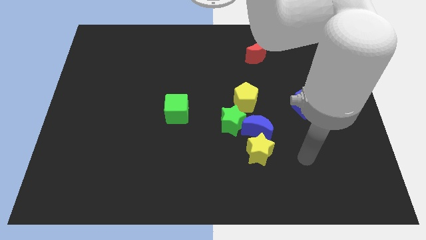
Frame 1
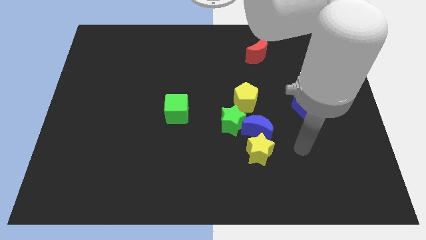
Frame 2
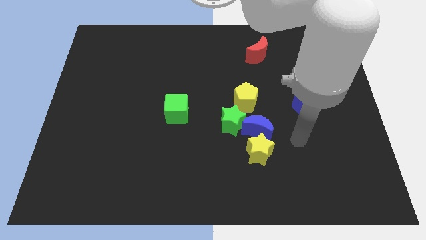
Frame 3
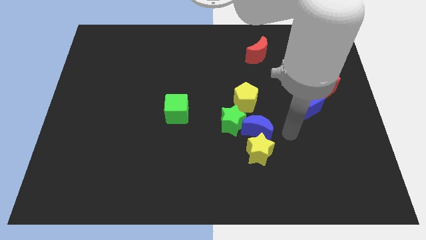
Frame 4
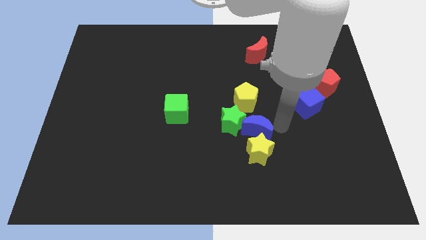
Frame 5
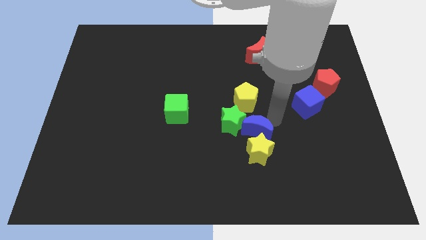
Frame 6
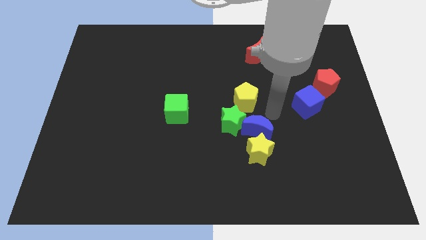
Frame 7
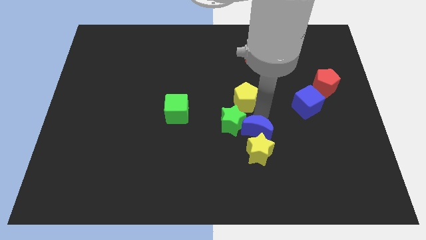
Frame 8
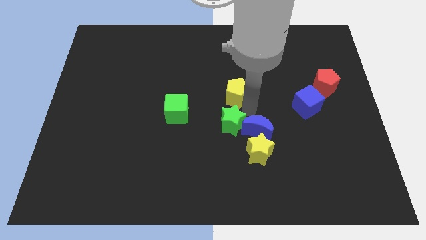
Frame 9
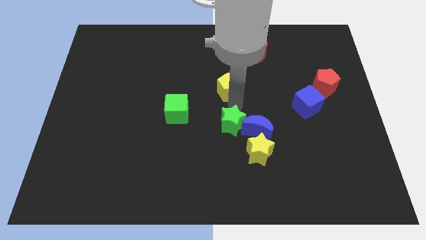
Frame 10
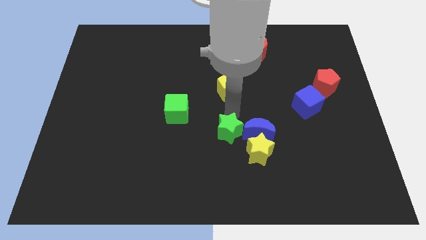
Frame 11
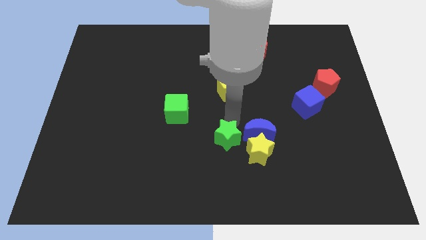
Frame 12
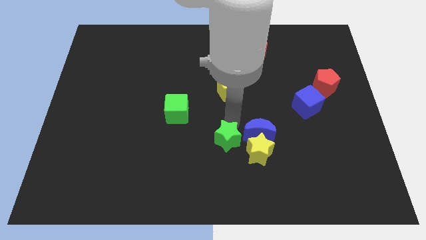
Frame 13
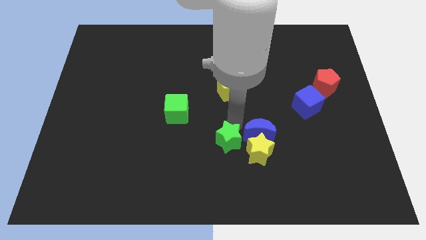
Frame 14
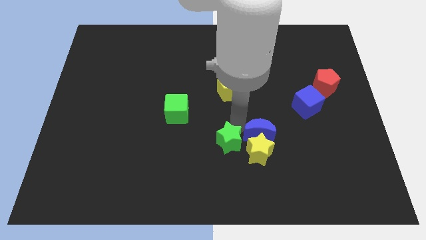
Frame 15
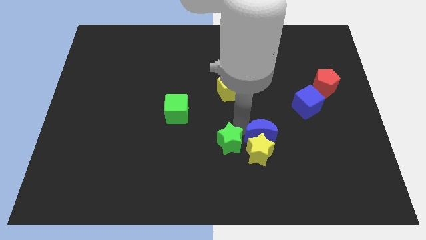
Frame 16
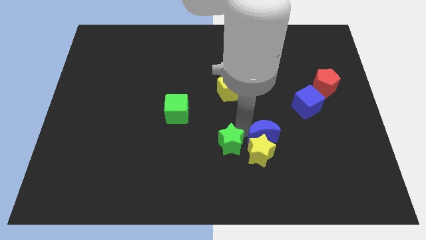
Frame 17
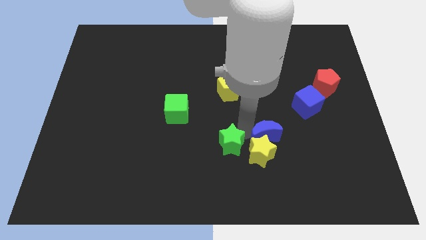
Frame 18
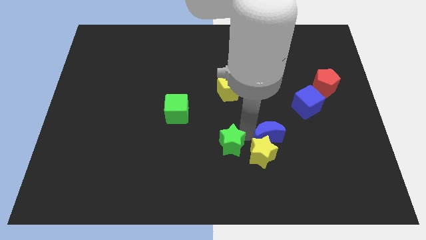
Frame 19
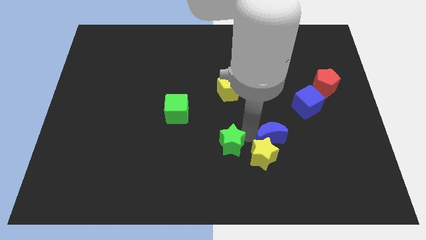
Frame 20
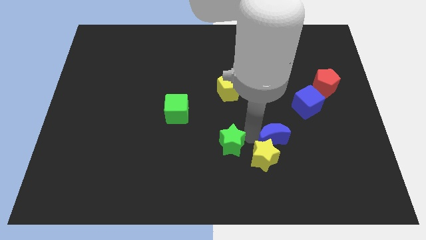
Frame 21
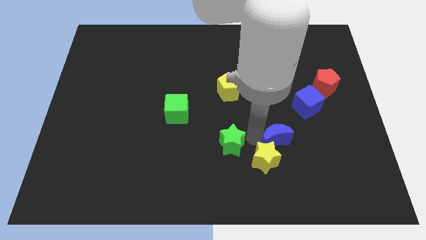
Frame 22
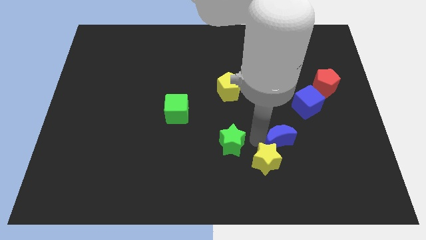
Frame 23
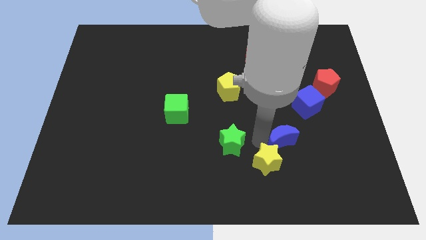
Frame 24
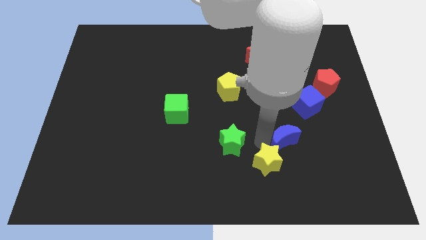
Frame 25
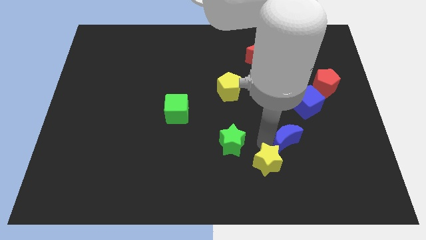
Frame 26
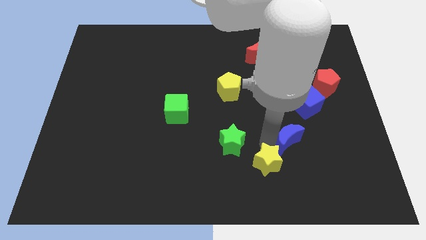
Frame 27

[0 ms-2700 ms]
separate the blue moon from the green star, yellow star, and yellow pentagon

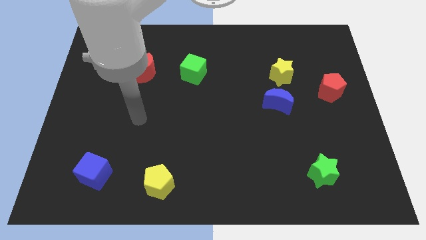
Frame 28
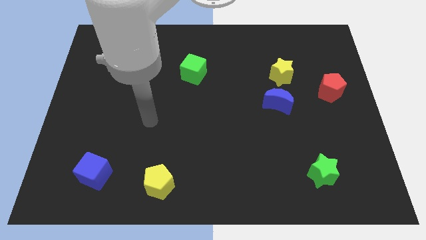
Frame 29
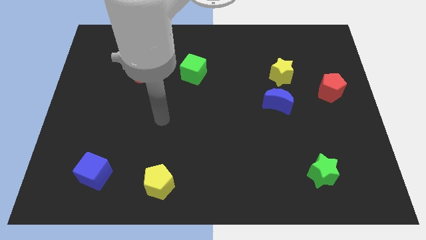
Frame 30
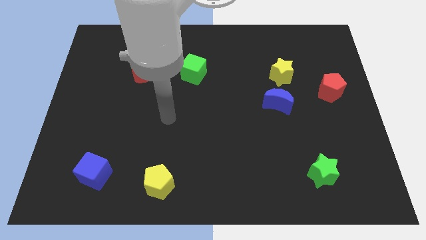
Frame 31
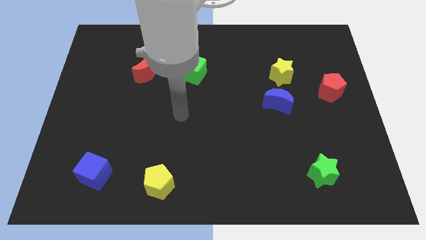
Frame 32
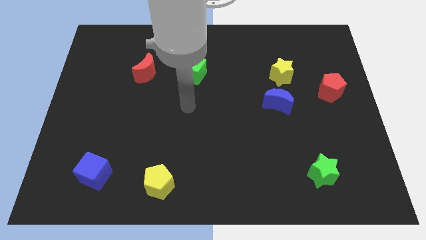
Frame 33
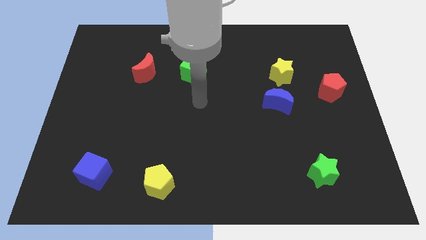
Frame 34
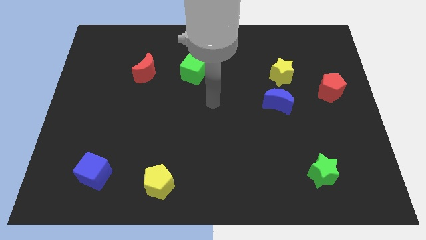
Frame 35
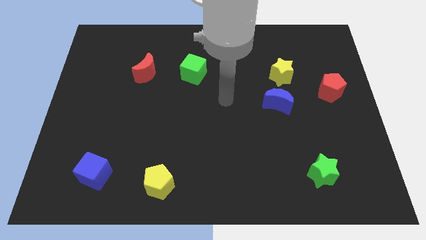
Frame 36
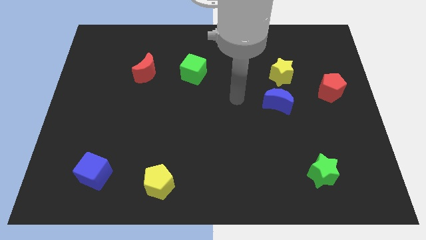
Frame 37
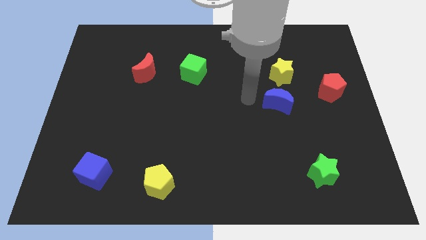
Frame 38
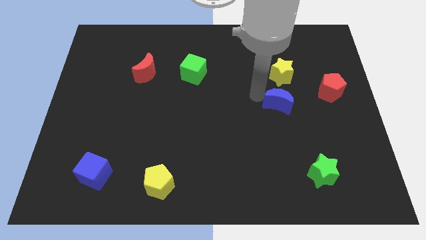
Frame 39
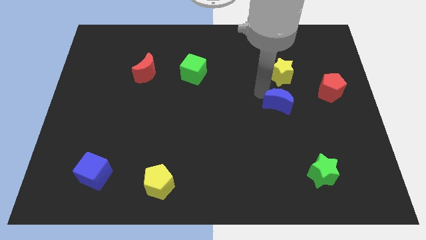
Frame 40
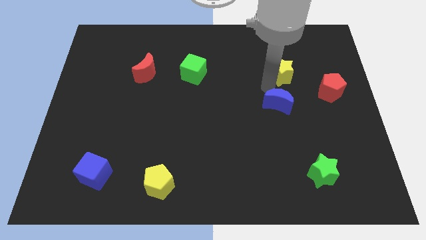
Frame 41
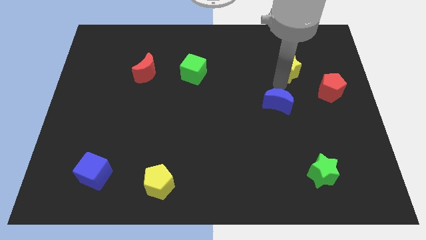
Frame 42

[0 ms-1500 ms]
move the blue moon away from the yellow star

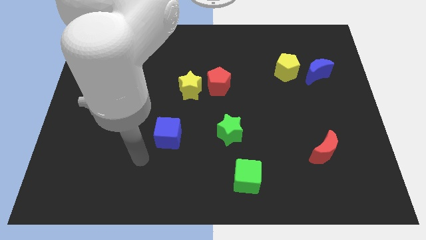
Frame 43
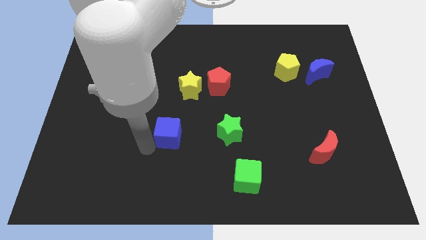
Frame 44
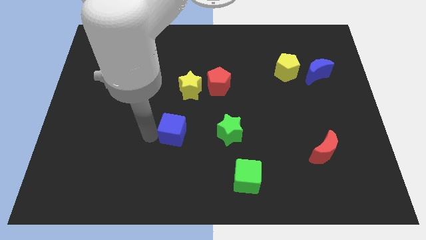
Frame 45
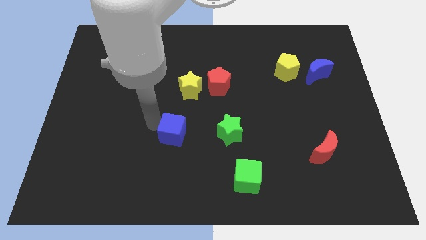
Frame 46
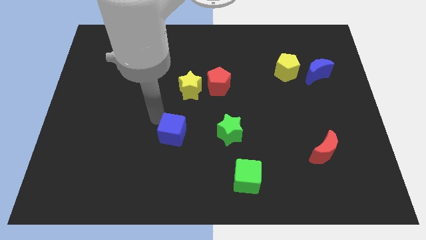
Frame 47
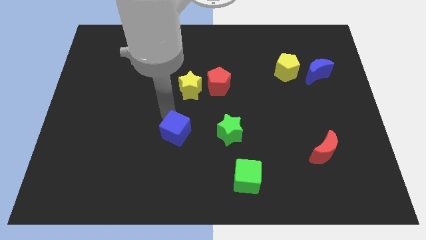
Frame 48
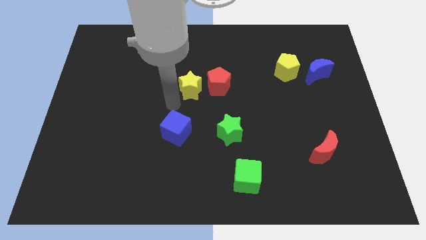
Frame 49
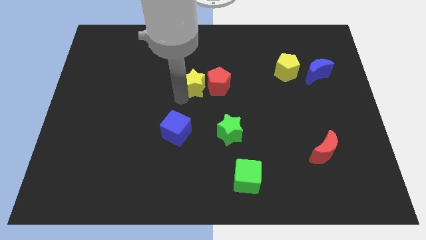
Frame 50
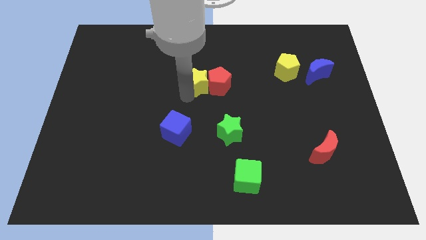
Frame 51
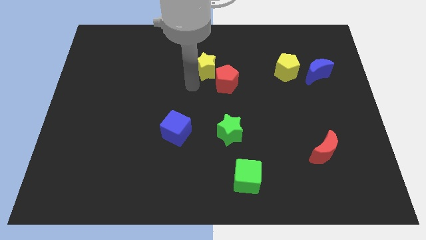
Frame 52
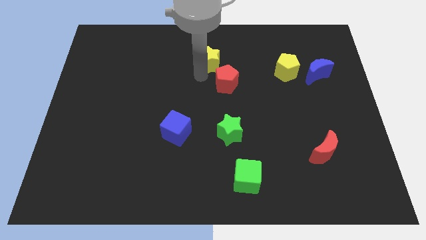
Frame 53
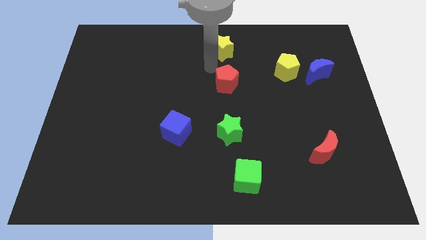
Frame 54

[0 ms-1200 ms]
pull the red pentagon apart from the yellow star

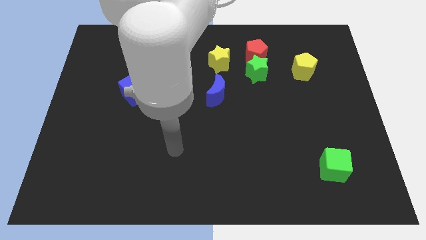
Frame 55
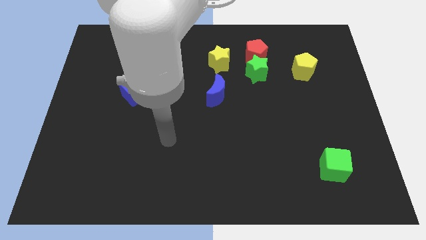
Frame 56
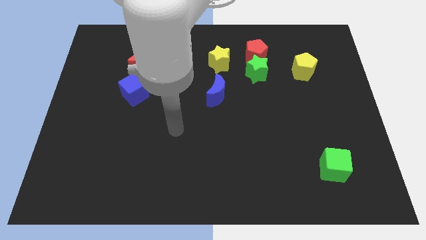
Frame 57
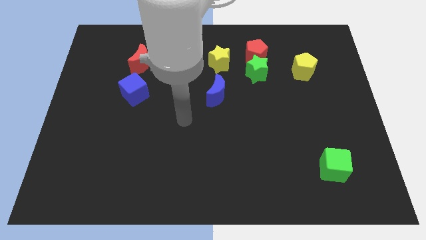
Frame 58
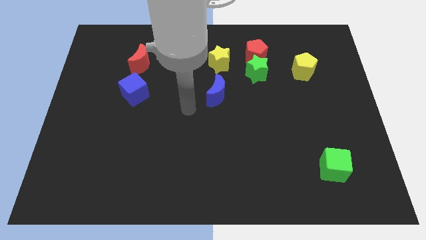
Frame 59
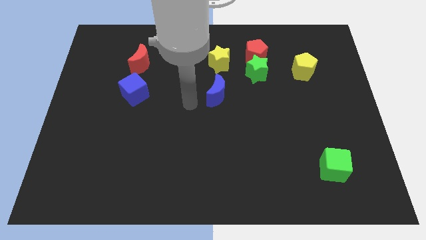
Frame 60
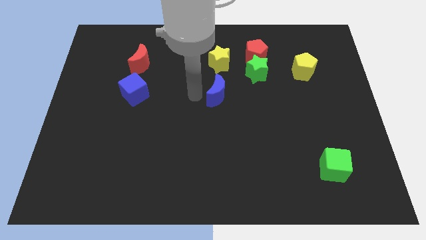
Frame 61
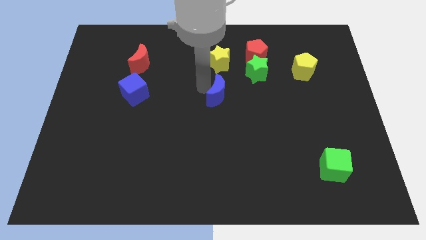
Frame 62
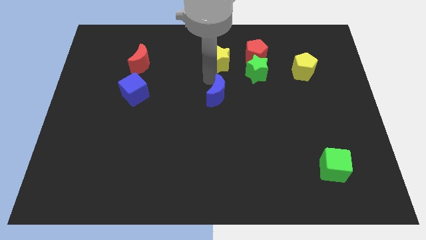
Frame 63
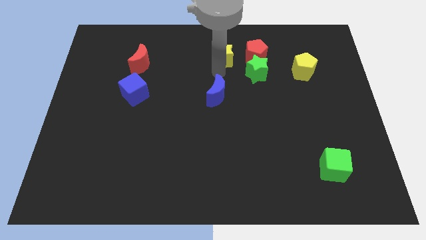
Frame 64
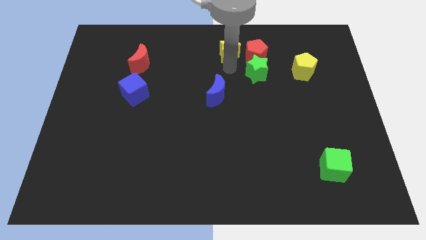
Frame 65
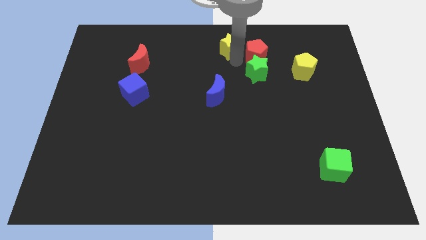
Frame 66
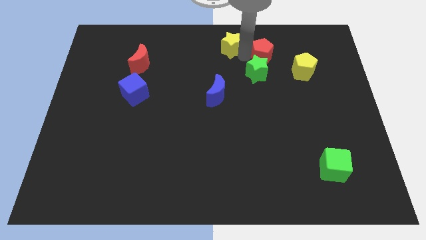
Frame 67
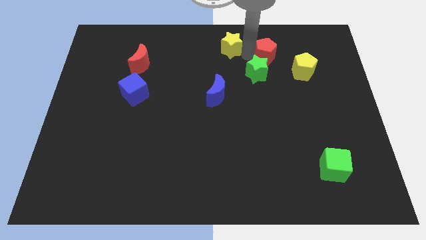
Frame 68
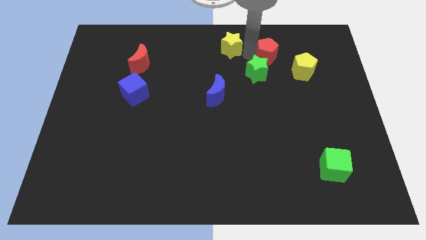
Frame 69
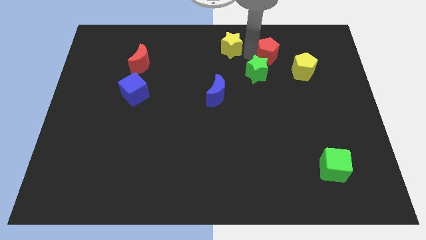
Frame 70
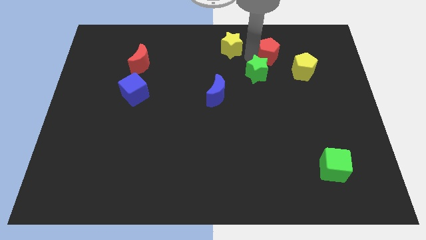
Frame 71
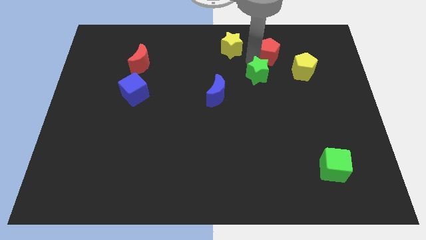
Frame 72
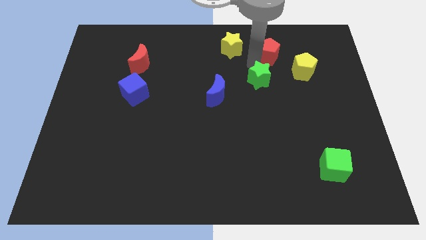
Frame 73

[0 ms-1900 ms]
move the green star away from the red pentagon and yellow star

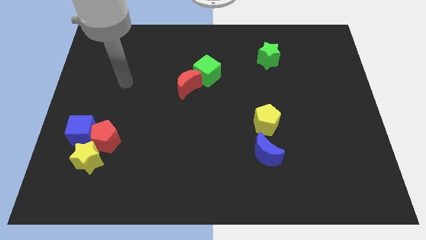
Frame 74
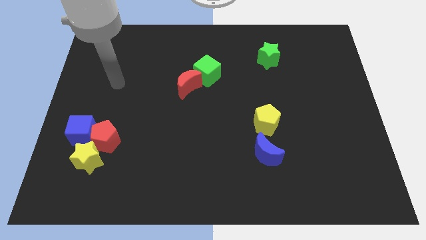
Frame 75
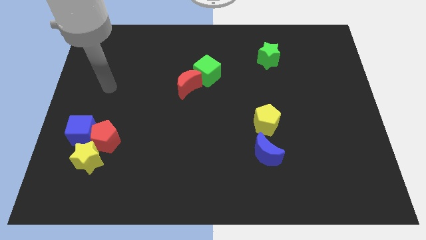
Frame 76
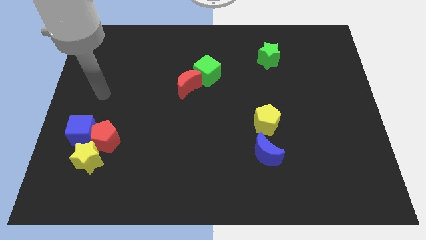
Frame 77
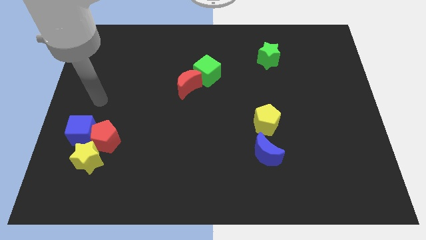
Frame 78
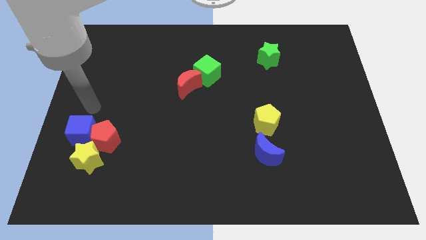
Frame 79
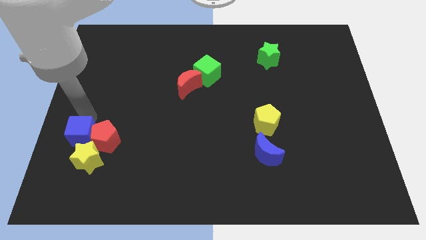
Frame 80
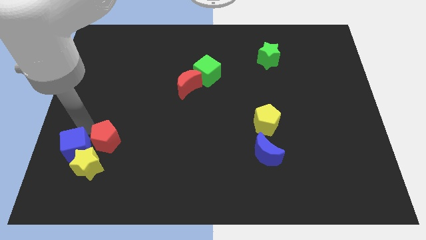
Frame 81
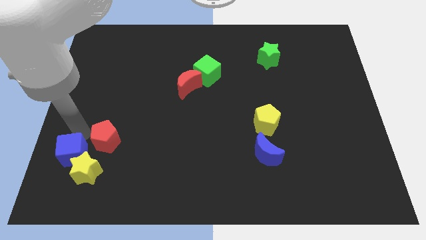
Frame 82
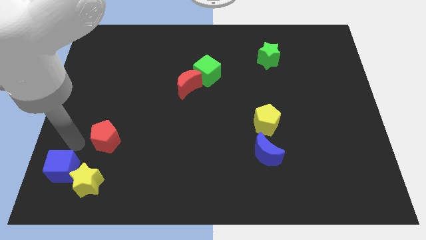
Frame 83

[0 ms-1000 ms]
pull the red pentagon apart from the blue cube and yellow star

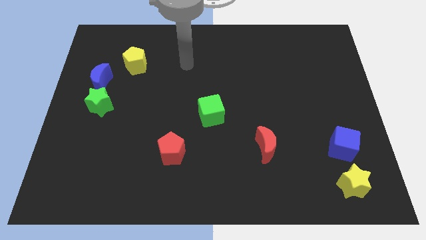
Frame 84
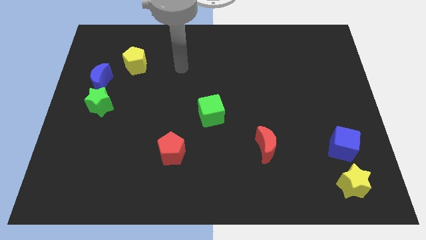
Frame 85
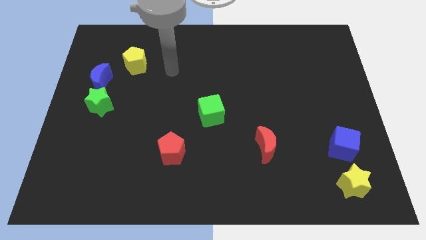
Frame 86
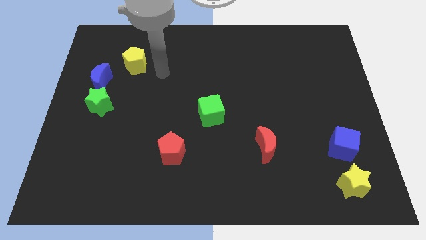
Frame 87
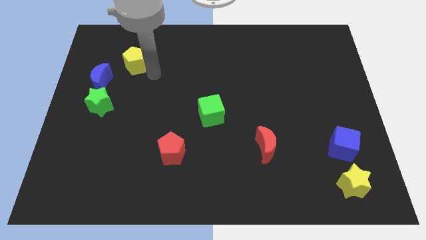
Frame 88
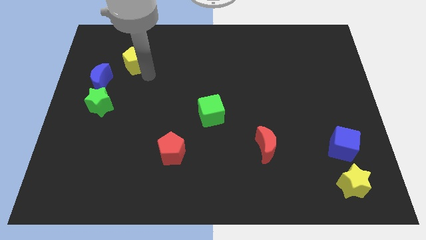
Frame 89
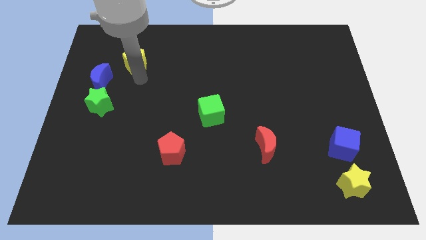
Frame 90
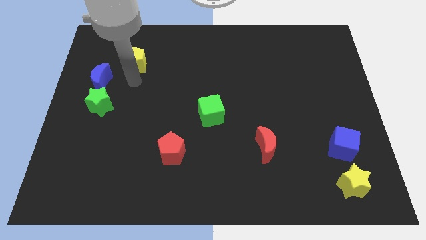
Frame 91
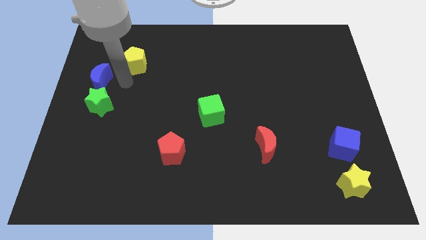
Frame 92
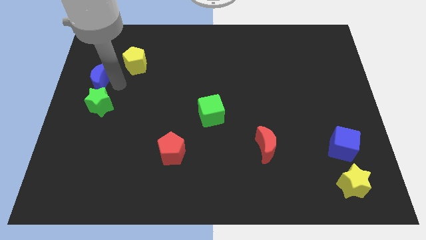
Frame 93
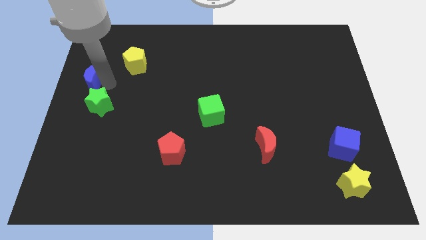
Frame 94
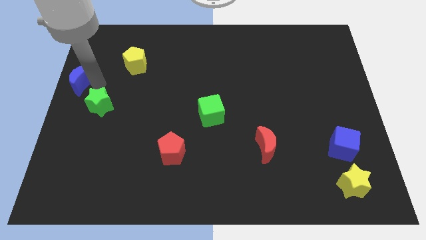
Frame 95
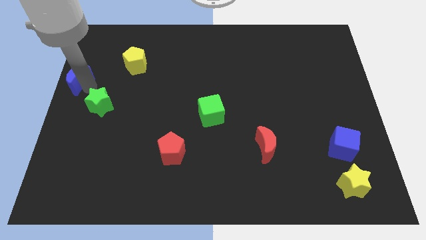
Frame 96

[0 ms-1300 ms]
separate the green star from the blue moon
